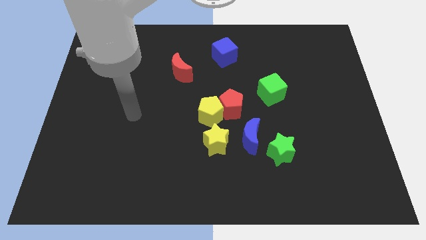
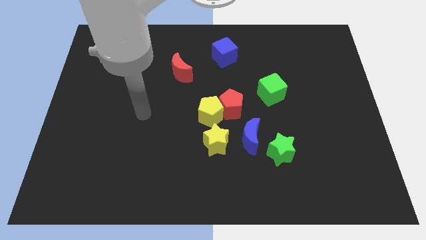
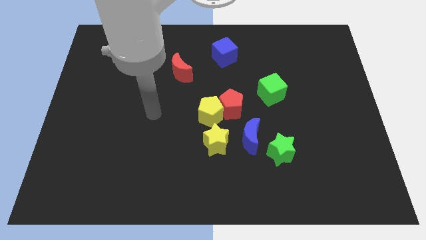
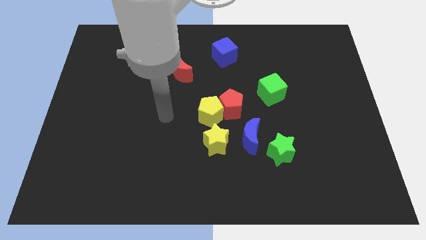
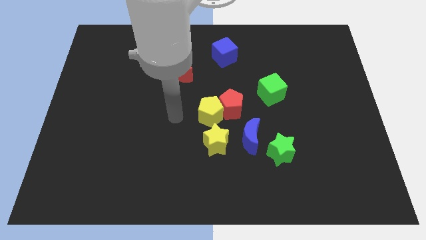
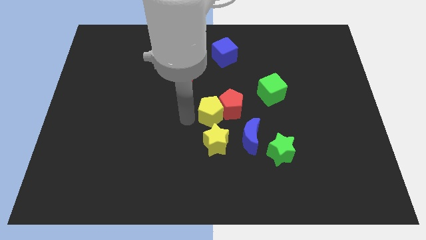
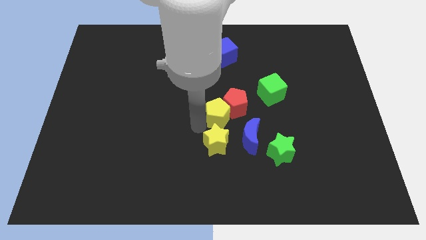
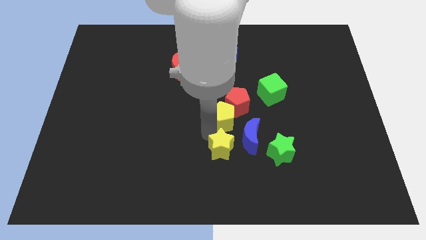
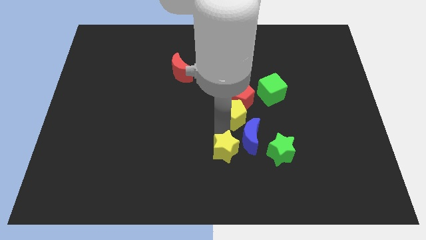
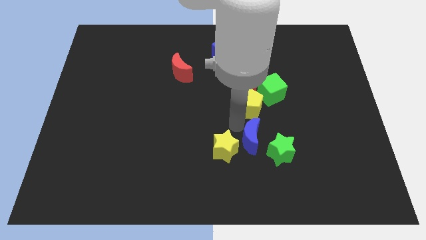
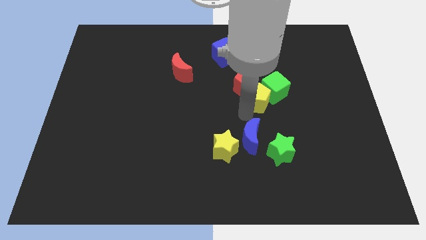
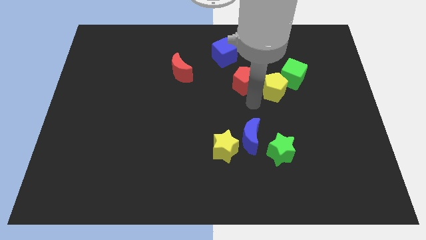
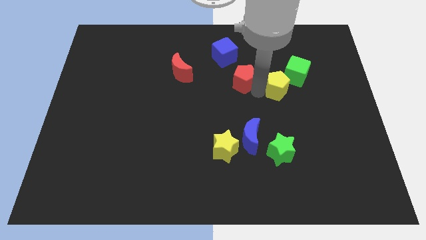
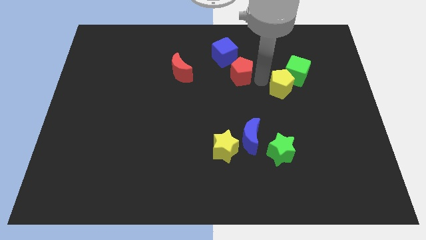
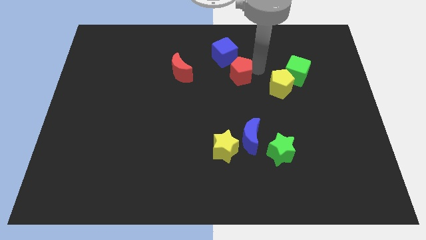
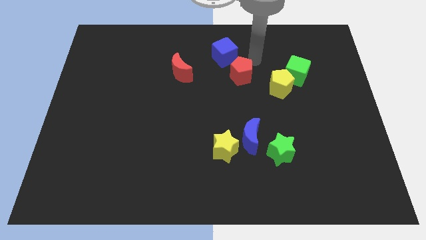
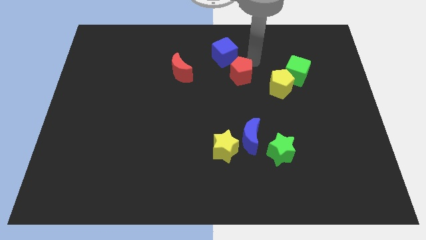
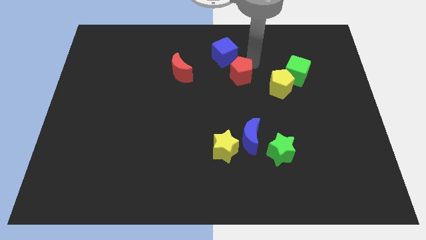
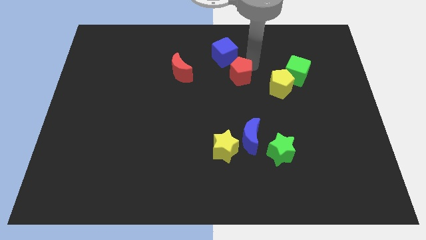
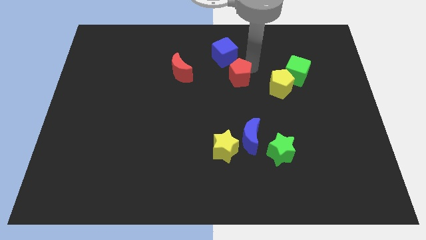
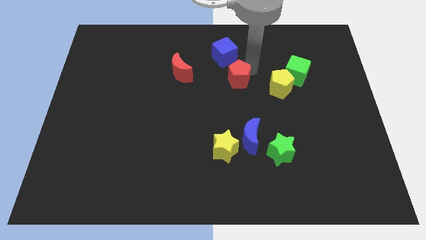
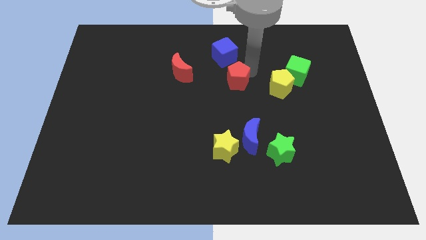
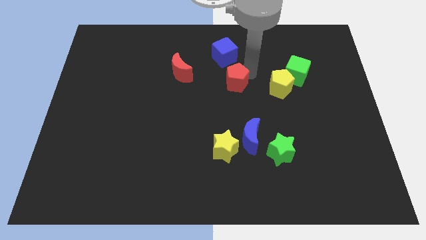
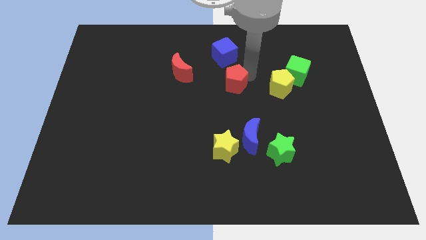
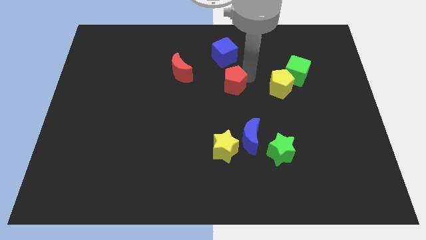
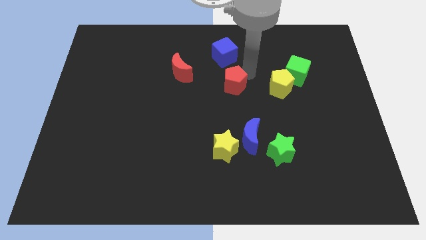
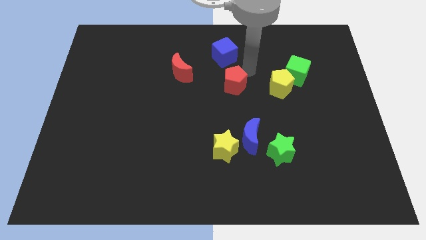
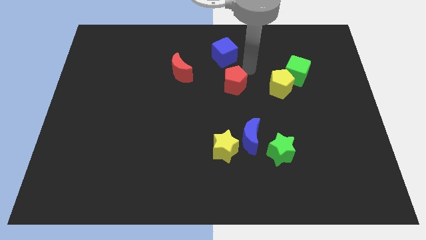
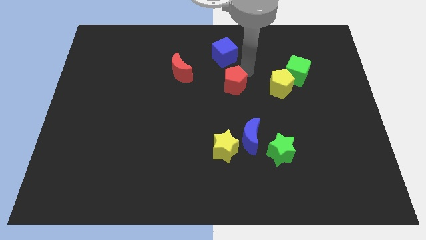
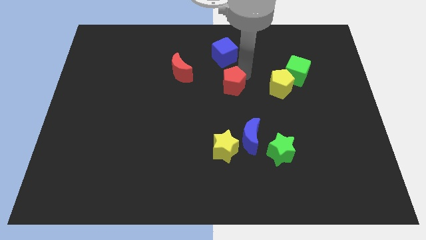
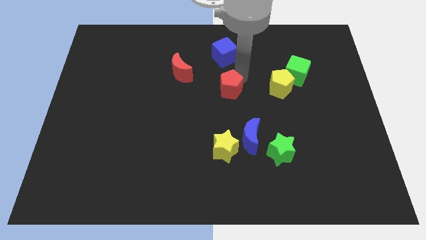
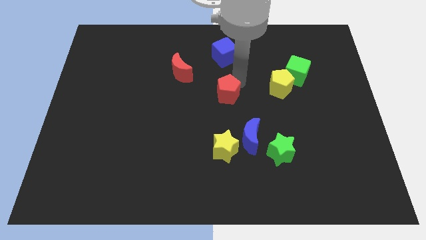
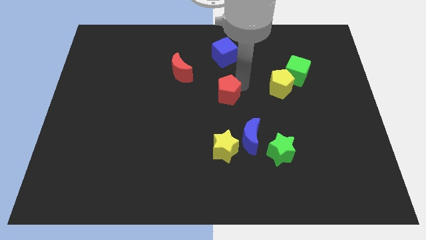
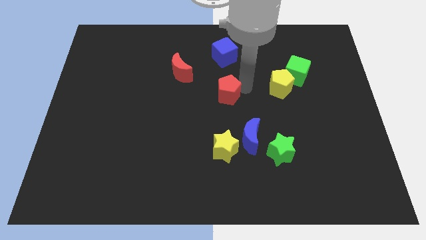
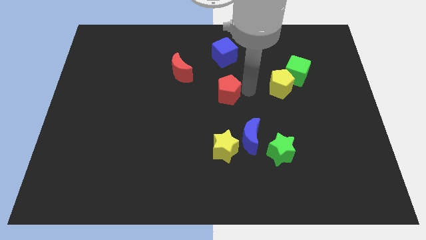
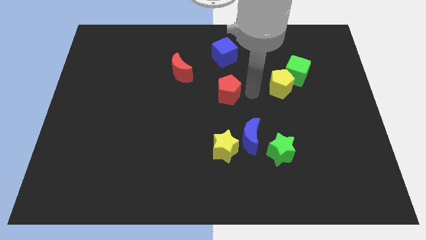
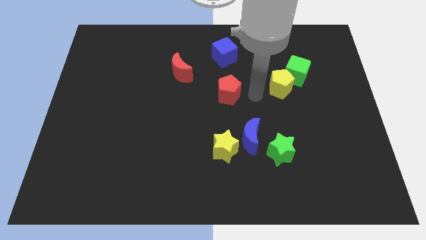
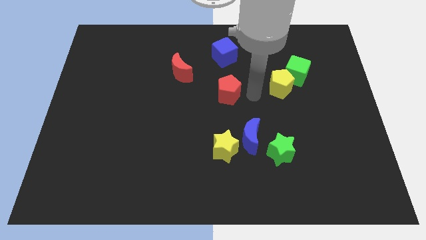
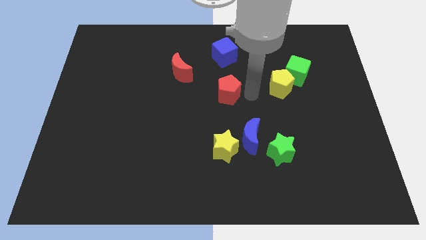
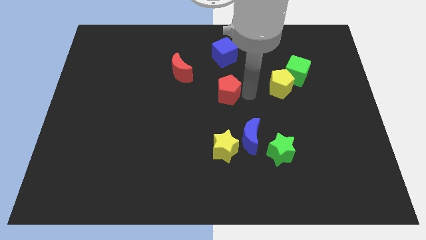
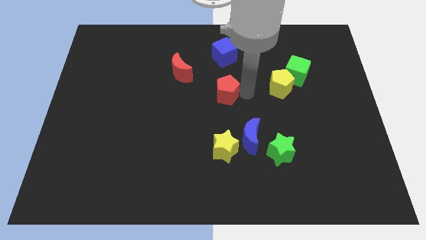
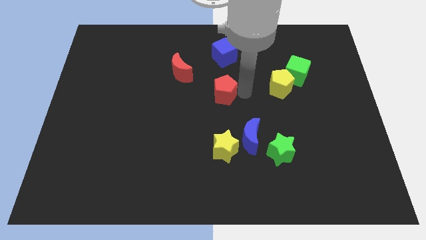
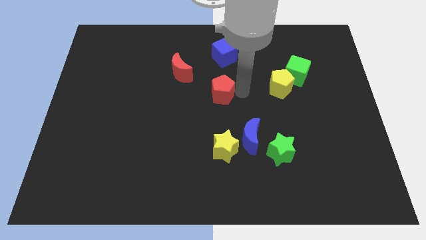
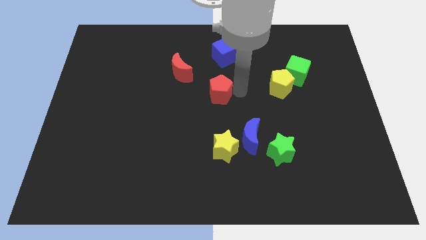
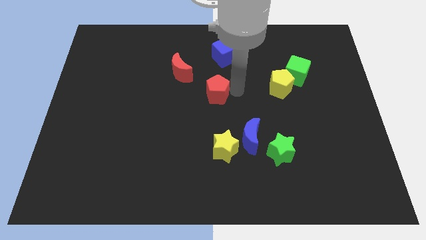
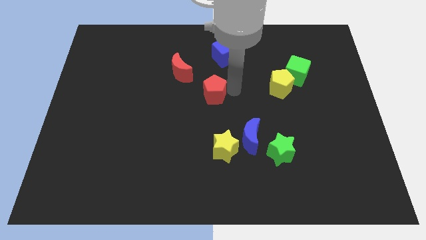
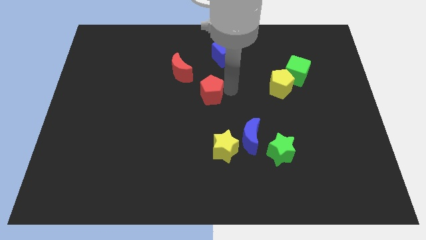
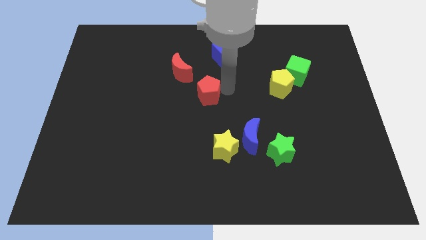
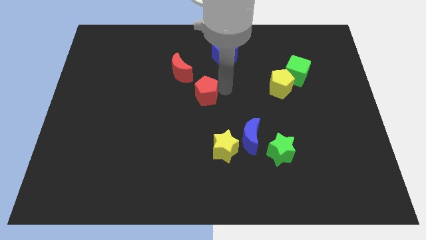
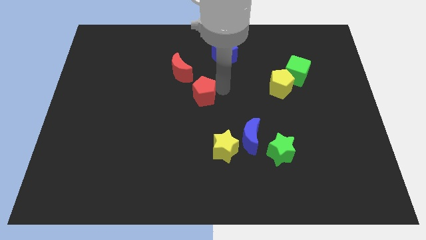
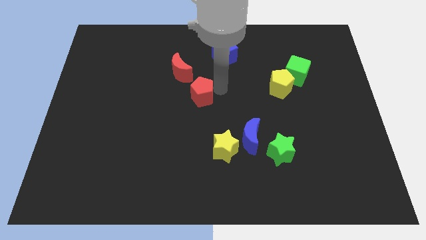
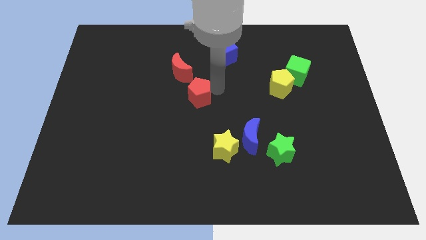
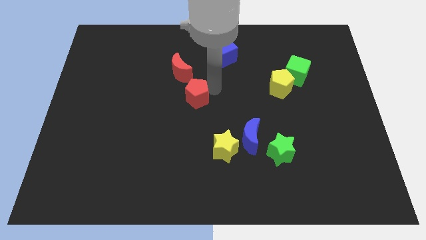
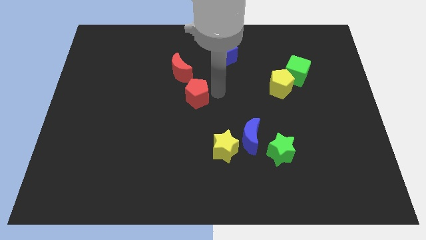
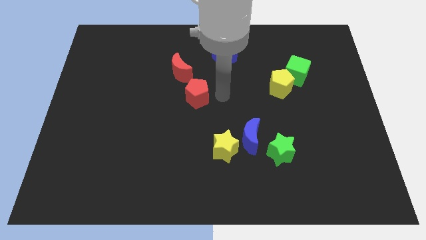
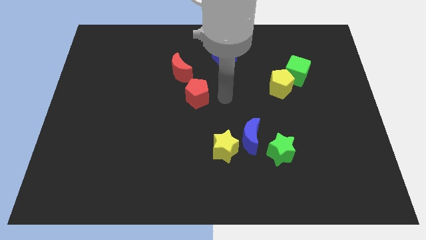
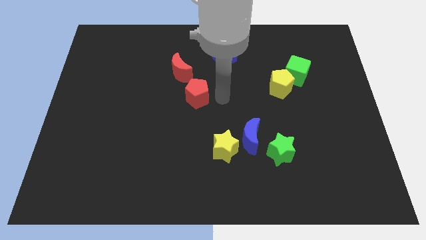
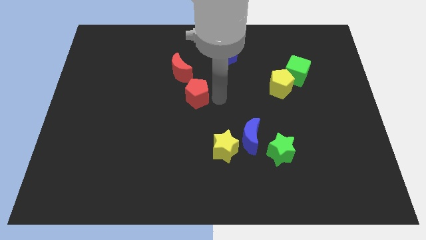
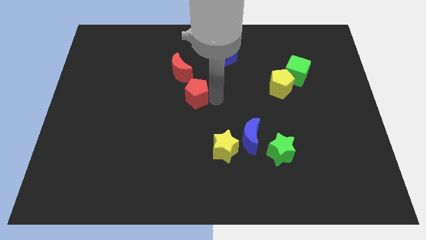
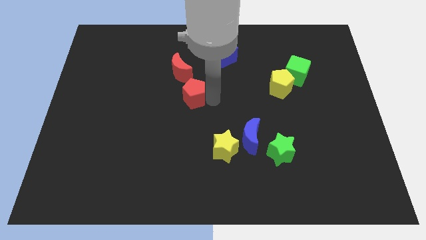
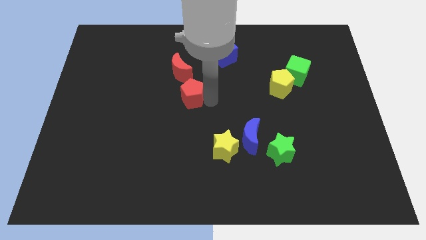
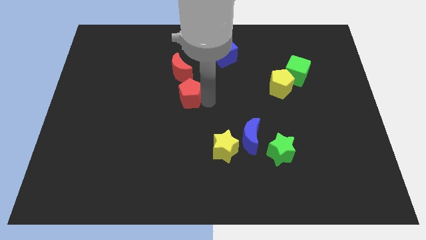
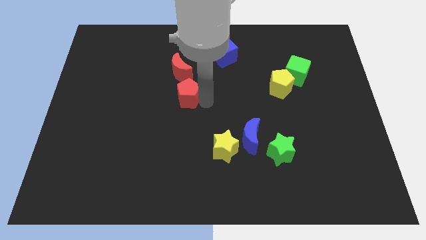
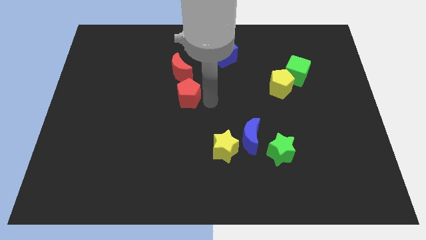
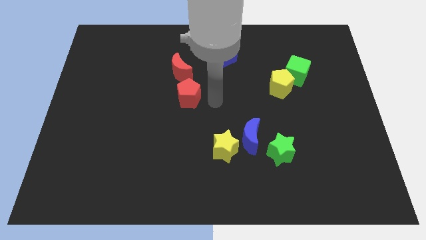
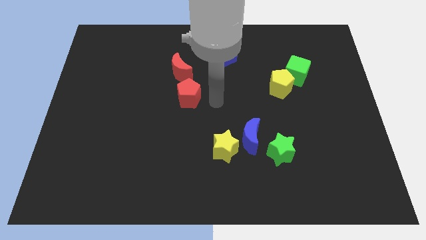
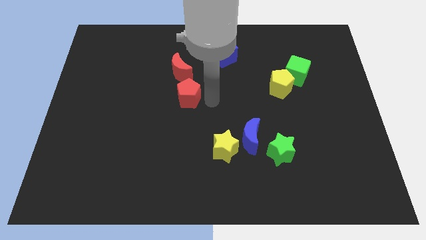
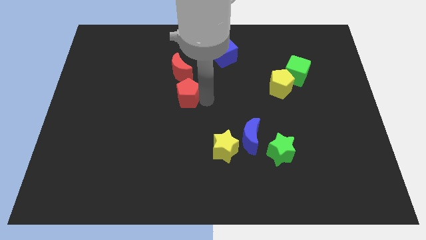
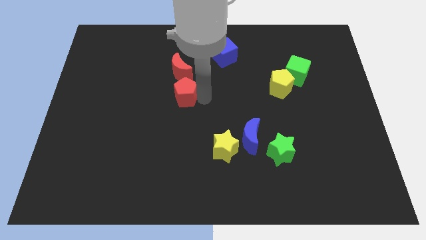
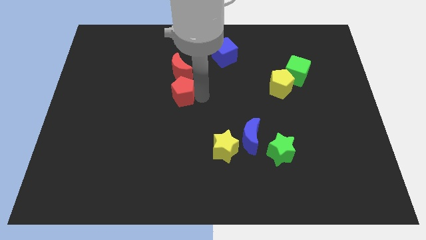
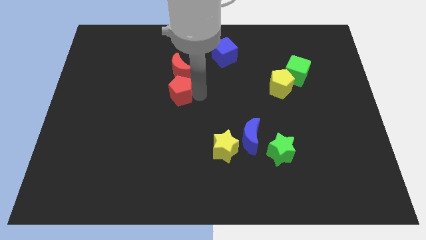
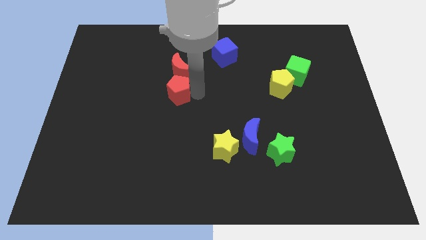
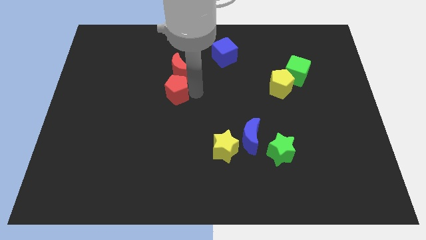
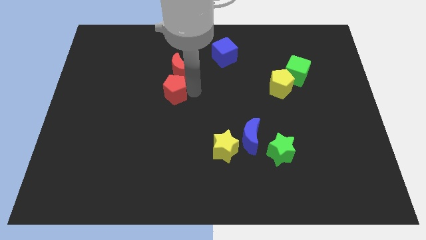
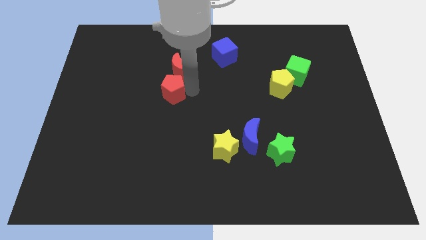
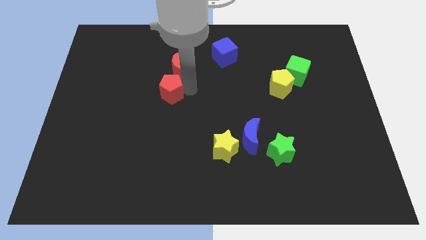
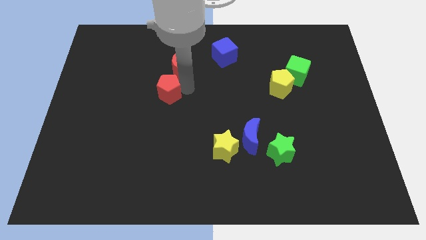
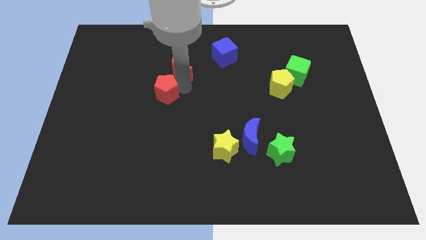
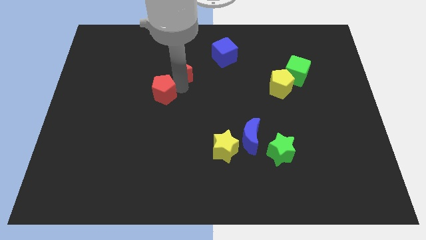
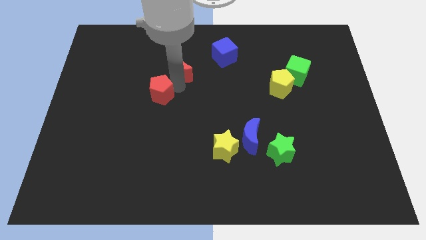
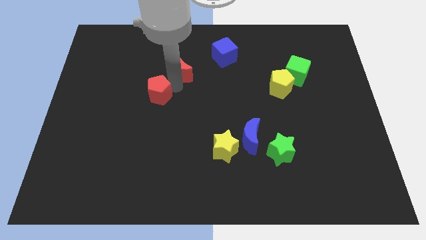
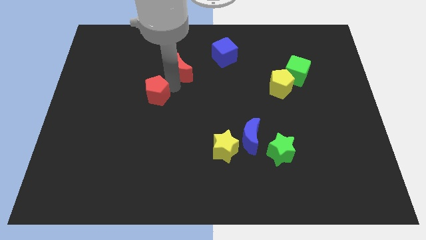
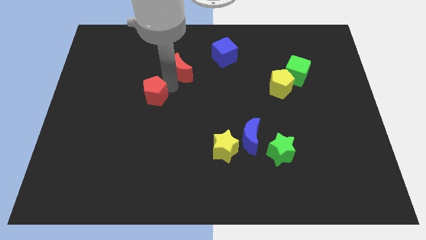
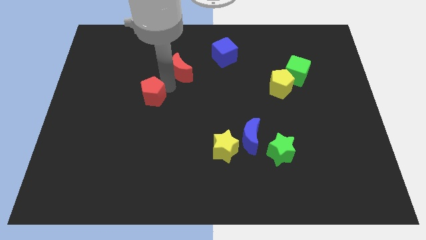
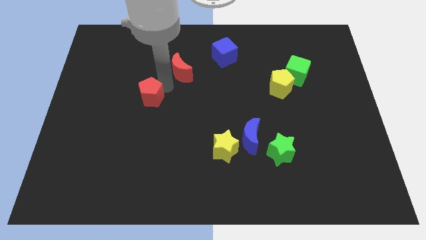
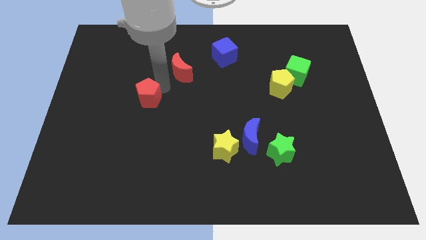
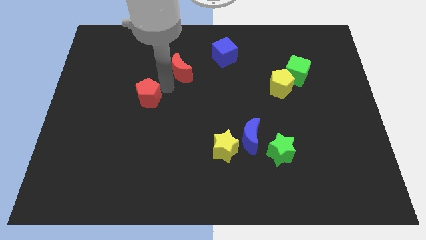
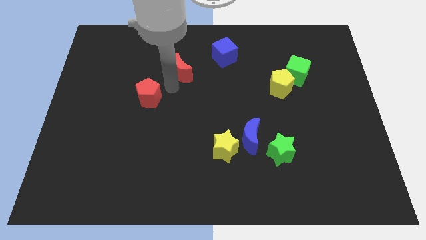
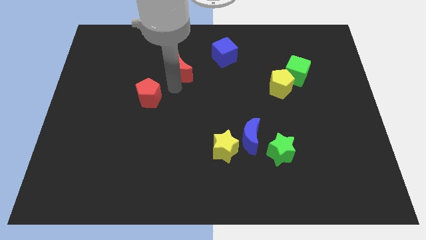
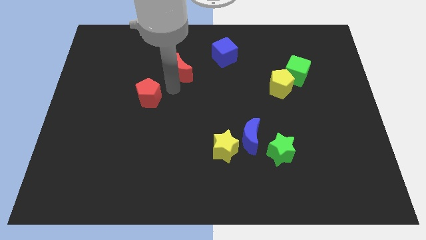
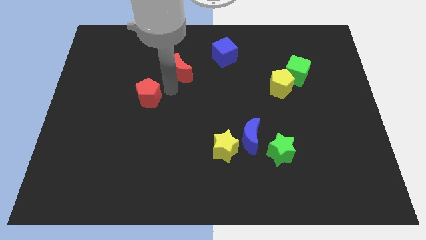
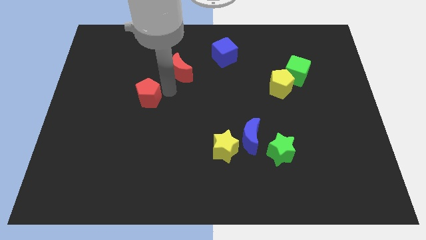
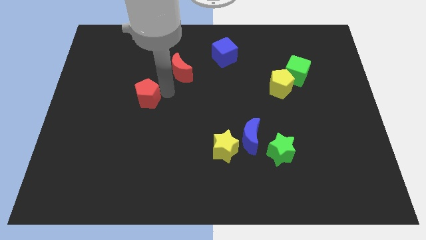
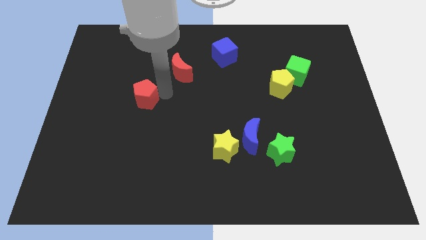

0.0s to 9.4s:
slide the red pentagon left
